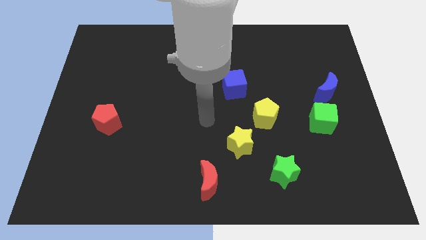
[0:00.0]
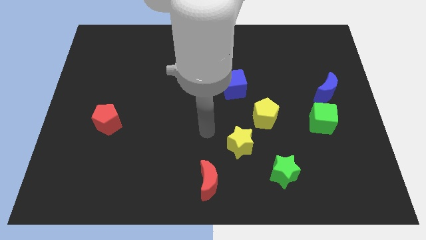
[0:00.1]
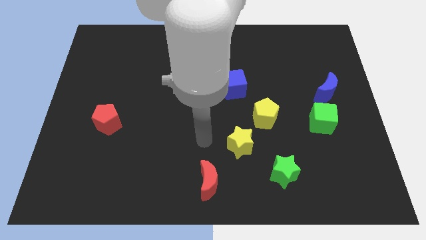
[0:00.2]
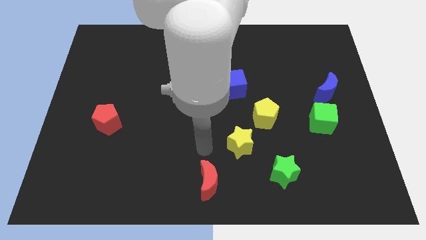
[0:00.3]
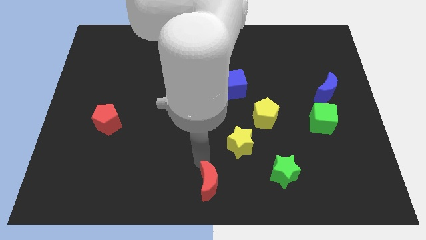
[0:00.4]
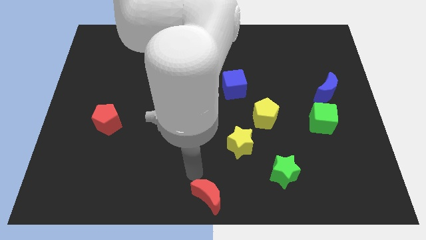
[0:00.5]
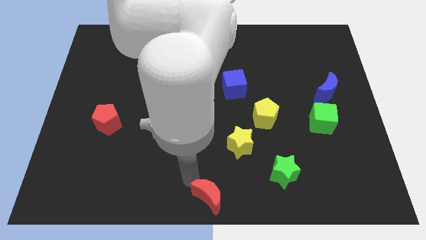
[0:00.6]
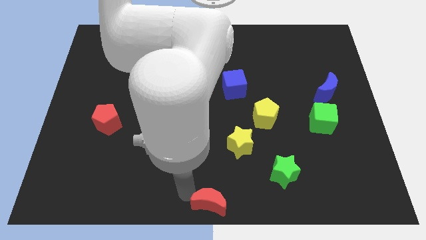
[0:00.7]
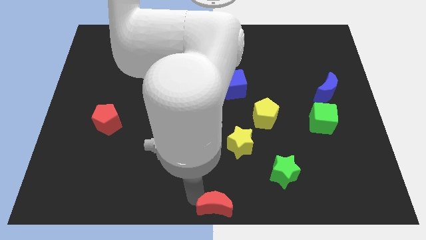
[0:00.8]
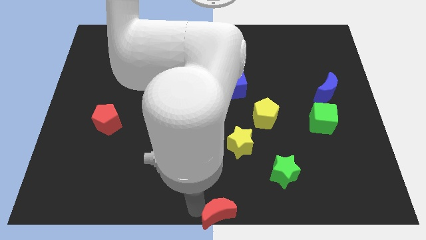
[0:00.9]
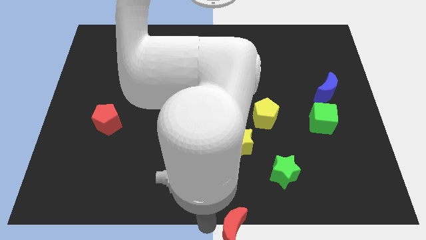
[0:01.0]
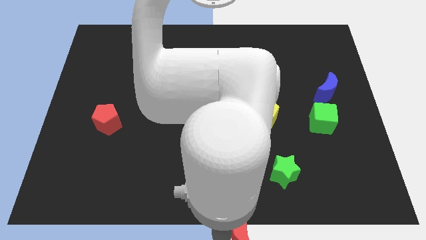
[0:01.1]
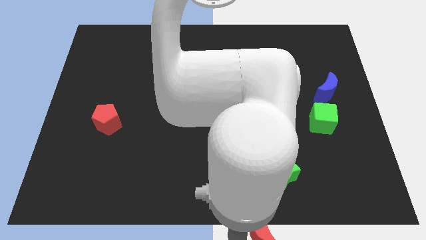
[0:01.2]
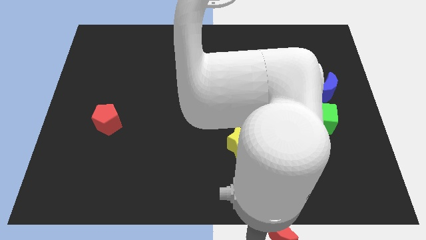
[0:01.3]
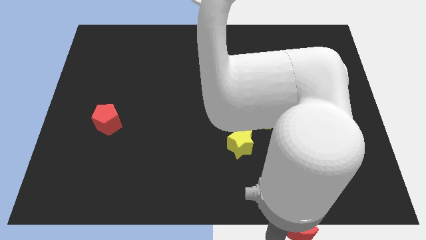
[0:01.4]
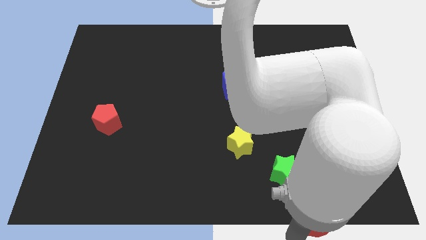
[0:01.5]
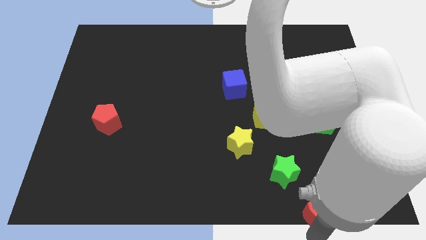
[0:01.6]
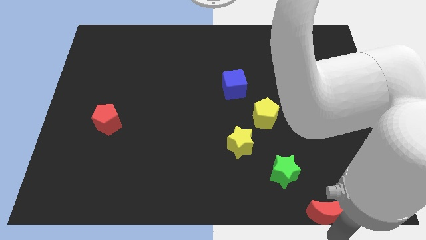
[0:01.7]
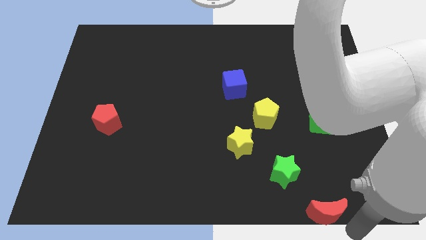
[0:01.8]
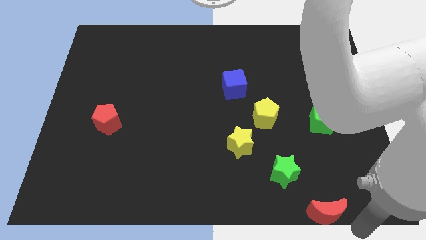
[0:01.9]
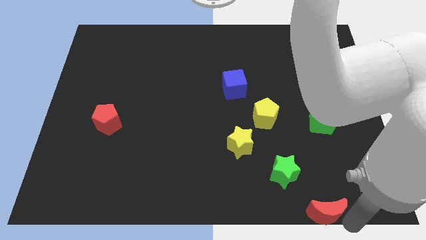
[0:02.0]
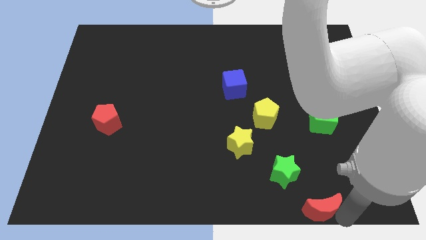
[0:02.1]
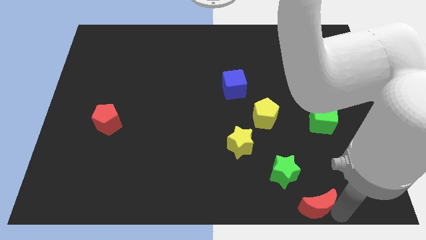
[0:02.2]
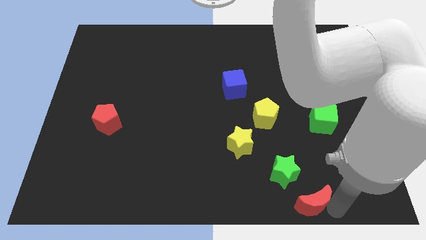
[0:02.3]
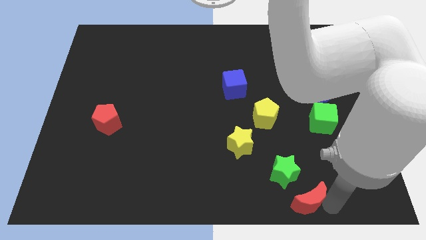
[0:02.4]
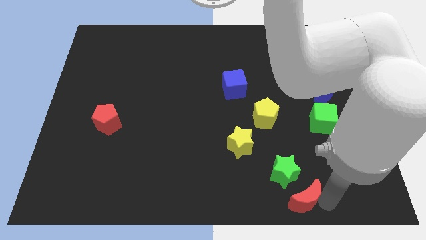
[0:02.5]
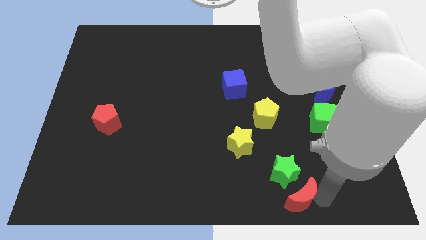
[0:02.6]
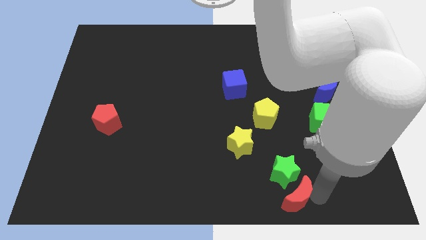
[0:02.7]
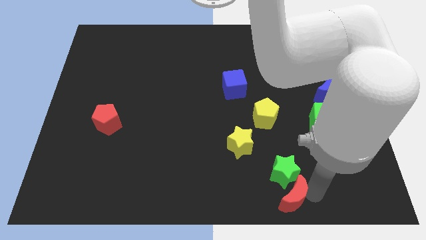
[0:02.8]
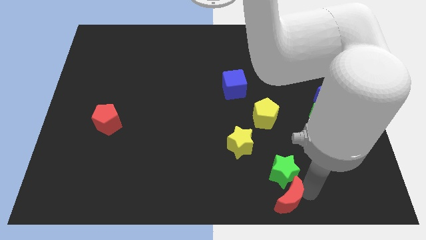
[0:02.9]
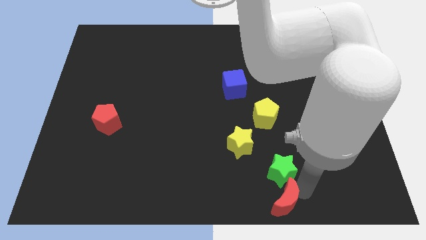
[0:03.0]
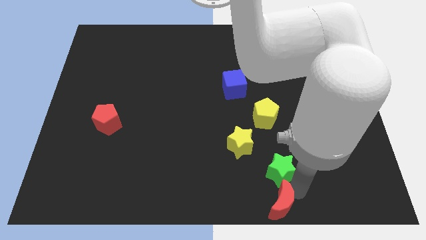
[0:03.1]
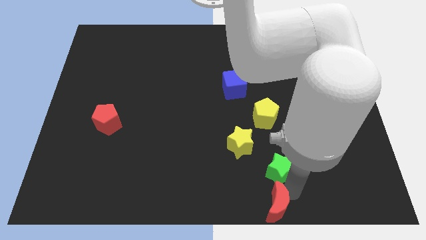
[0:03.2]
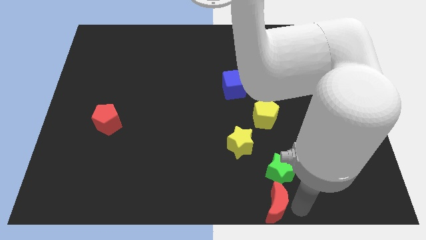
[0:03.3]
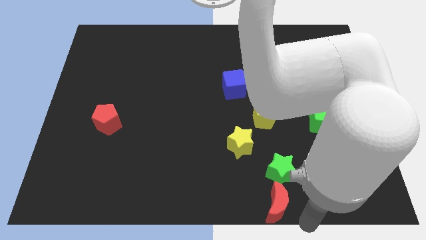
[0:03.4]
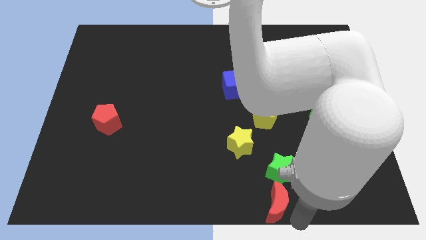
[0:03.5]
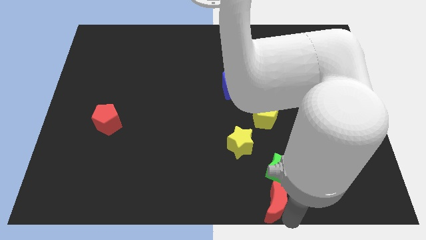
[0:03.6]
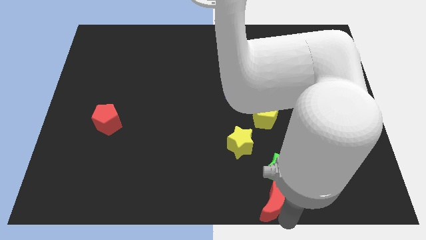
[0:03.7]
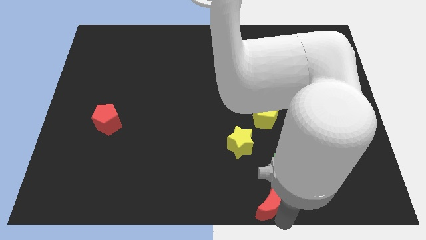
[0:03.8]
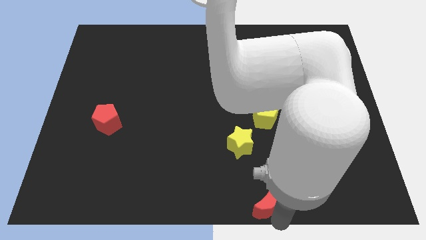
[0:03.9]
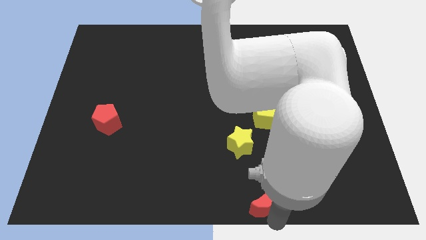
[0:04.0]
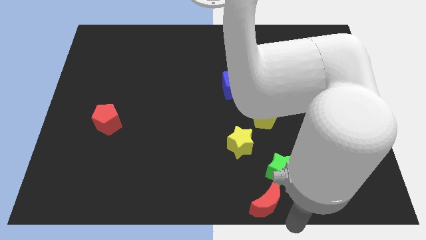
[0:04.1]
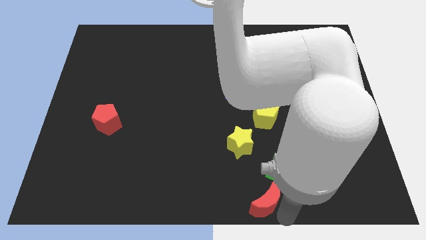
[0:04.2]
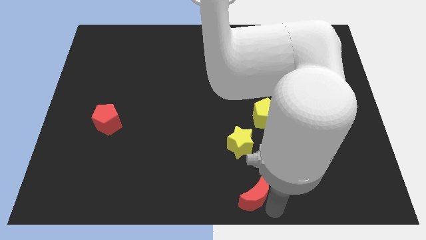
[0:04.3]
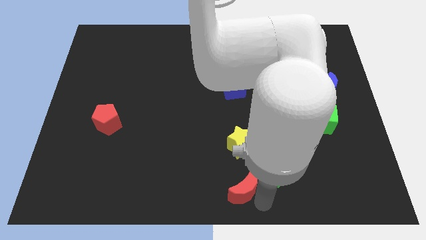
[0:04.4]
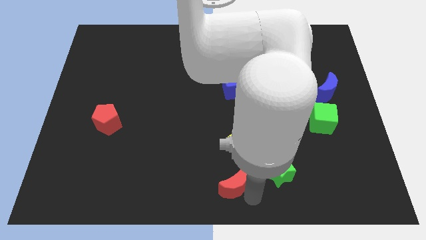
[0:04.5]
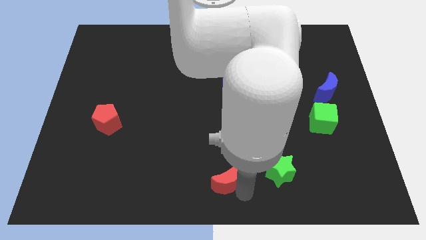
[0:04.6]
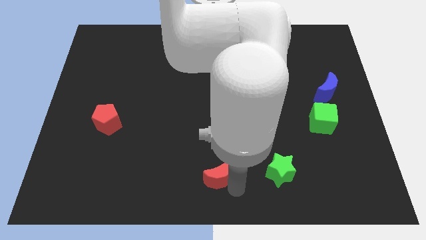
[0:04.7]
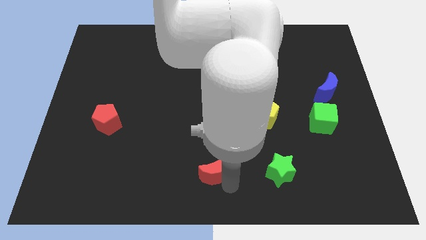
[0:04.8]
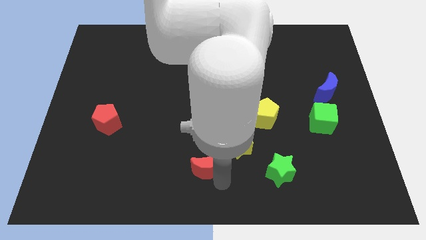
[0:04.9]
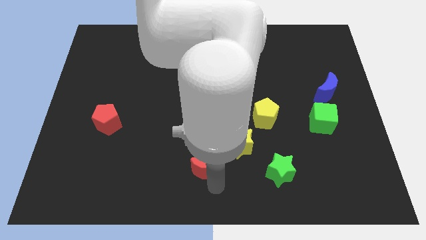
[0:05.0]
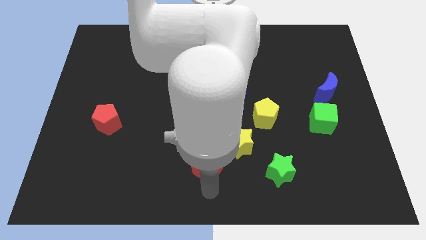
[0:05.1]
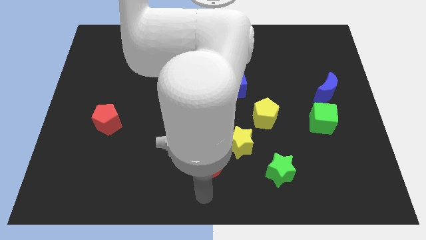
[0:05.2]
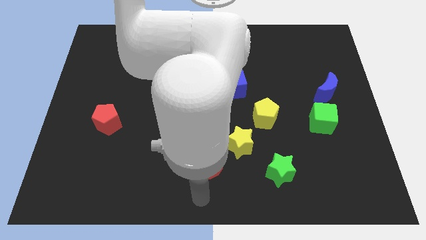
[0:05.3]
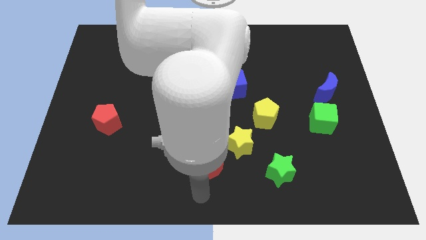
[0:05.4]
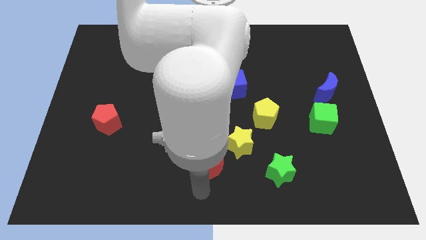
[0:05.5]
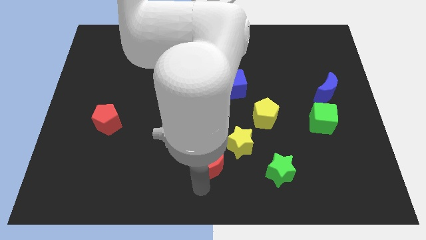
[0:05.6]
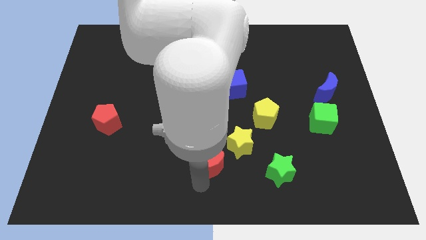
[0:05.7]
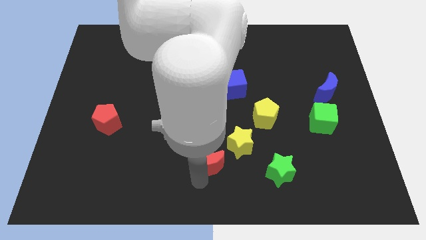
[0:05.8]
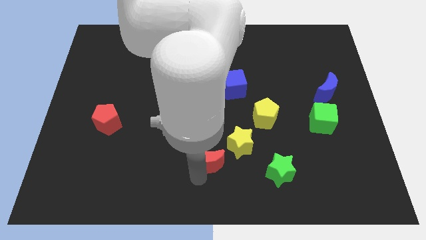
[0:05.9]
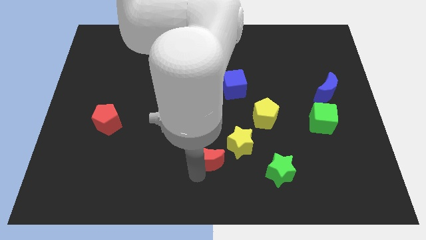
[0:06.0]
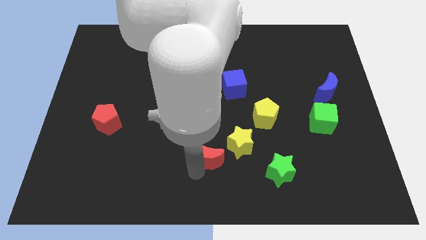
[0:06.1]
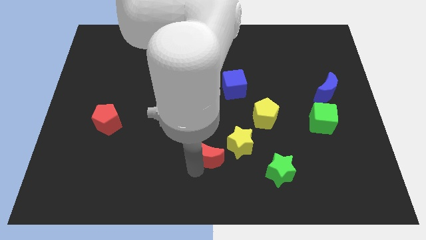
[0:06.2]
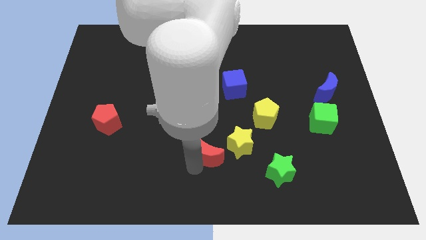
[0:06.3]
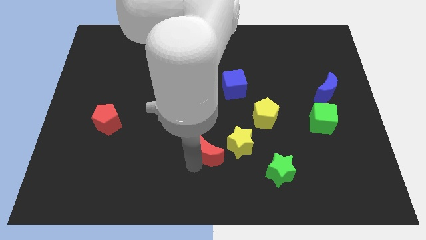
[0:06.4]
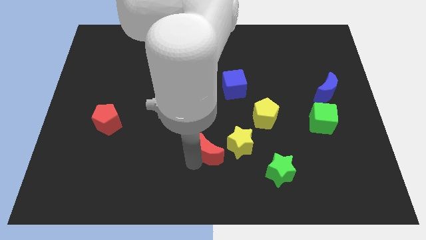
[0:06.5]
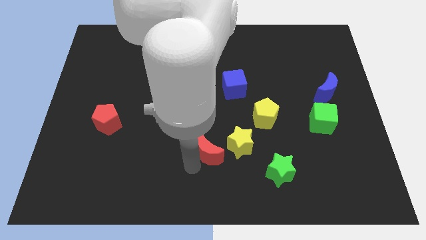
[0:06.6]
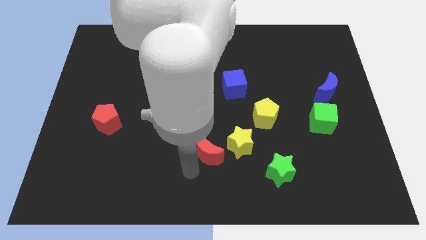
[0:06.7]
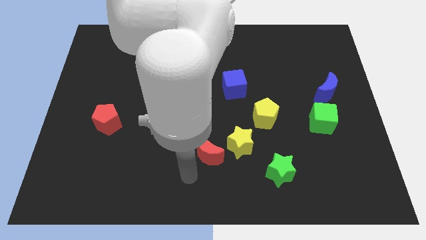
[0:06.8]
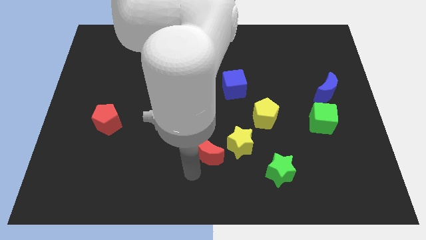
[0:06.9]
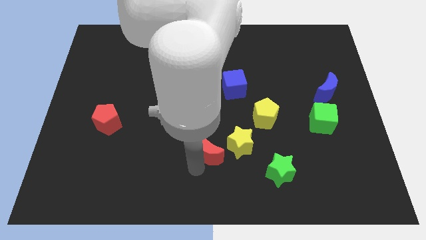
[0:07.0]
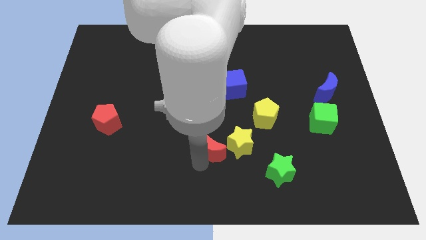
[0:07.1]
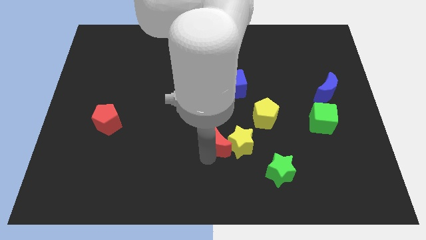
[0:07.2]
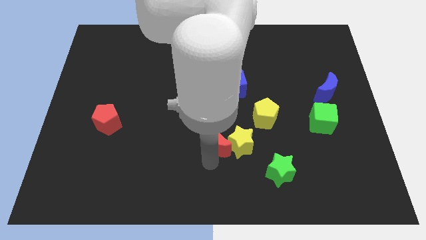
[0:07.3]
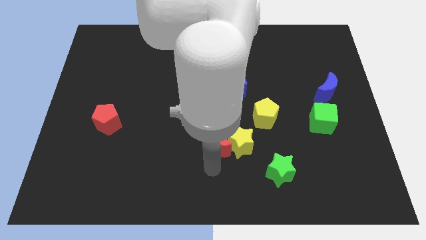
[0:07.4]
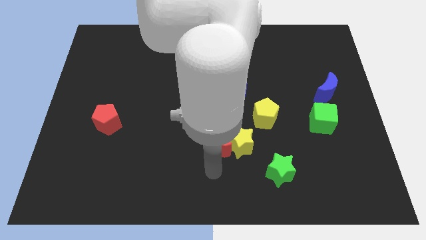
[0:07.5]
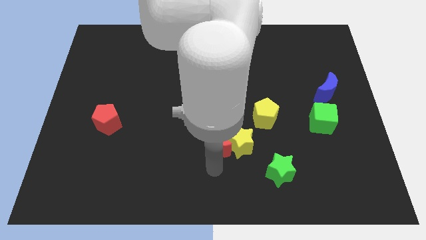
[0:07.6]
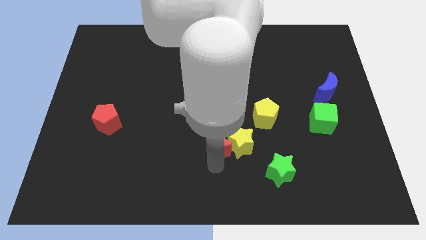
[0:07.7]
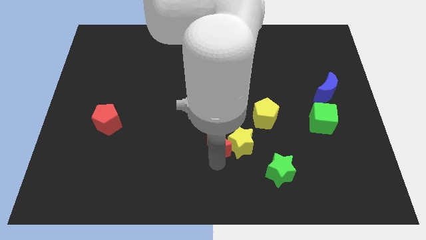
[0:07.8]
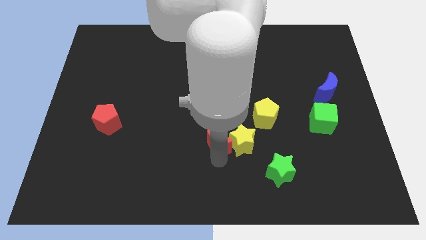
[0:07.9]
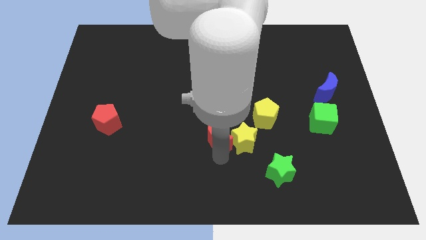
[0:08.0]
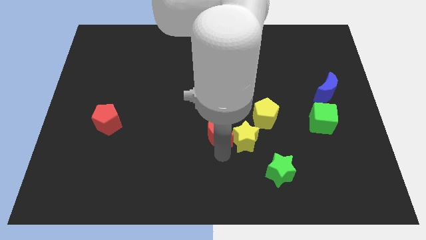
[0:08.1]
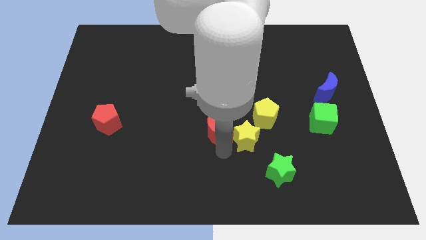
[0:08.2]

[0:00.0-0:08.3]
push the red moon left of the yellow pentagon
